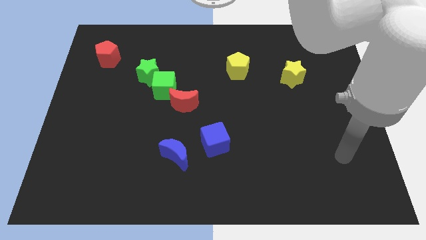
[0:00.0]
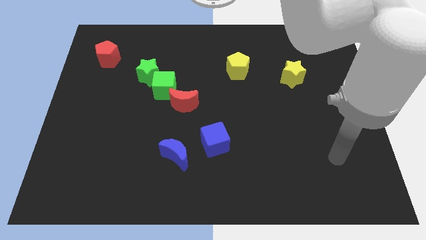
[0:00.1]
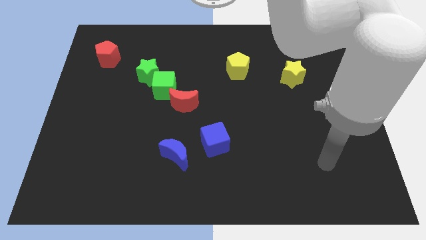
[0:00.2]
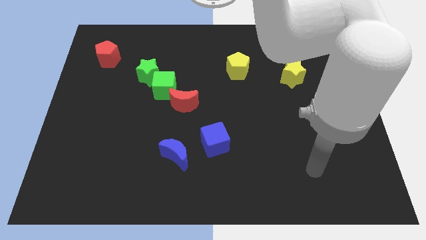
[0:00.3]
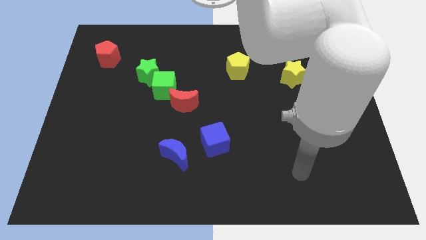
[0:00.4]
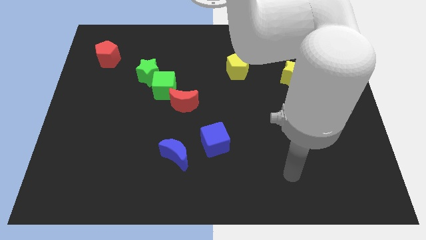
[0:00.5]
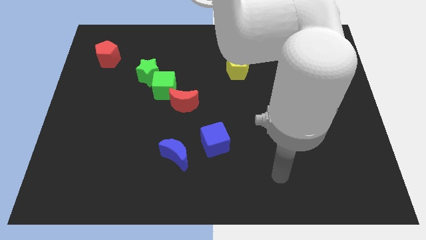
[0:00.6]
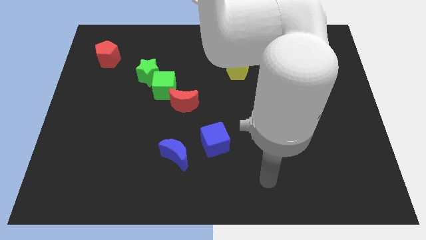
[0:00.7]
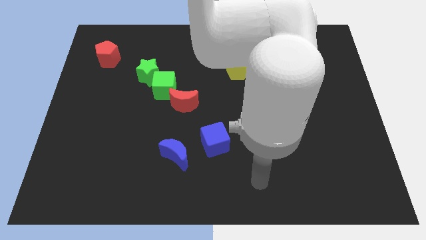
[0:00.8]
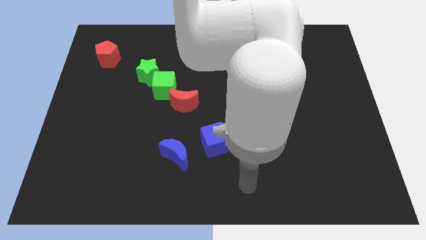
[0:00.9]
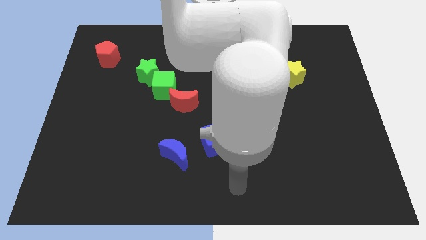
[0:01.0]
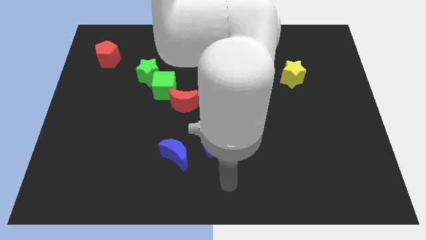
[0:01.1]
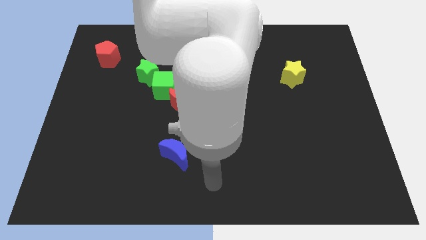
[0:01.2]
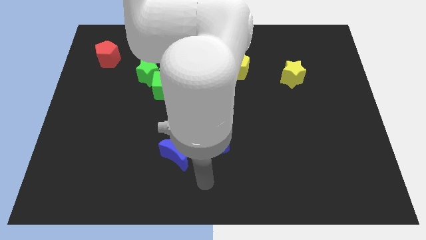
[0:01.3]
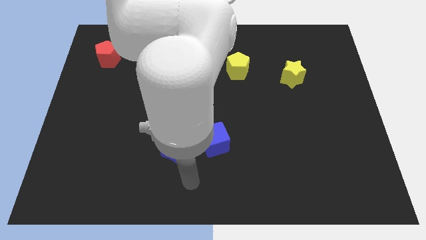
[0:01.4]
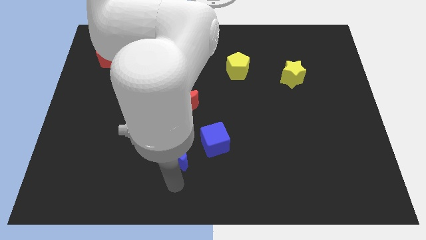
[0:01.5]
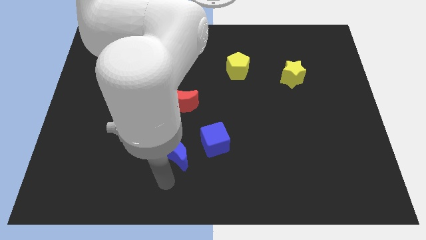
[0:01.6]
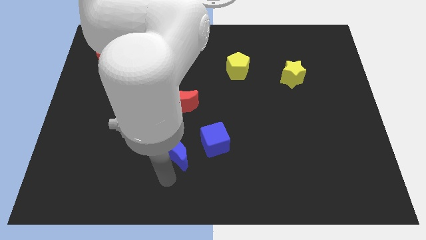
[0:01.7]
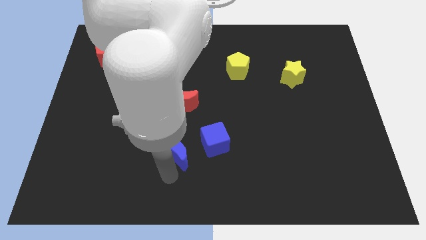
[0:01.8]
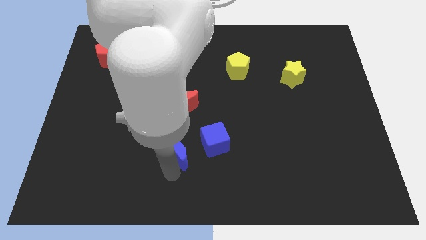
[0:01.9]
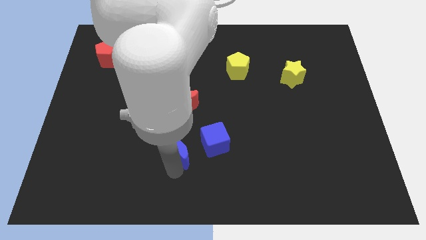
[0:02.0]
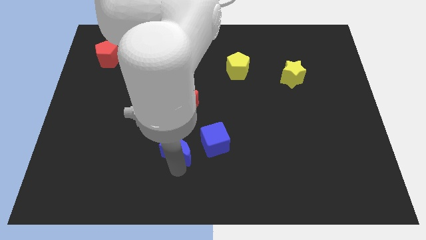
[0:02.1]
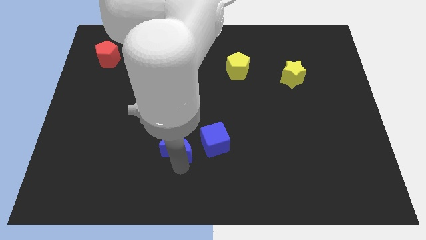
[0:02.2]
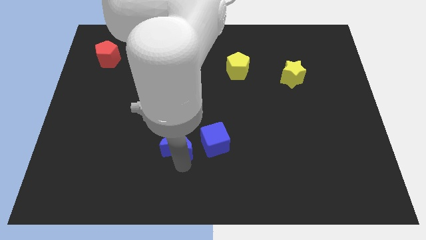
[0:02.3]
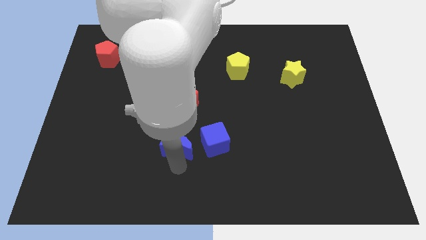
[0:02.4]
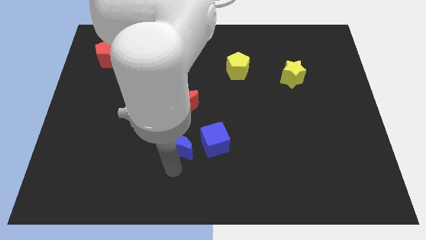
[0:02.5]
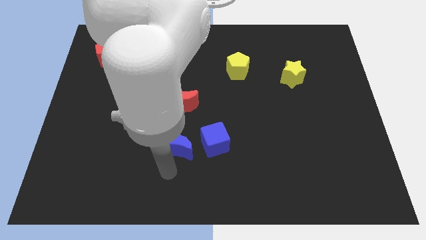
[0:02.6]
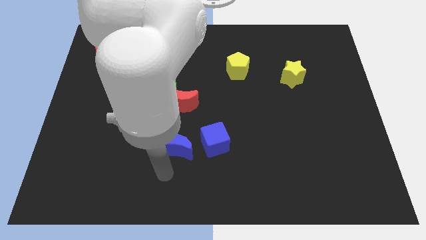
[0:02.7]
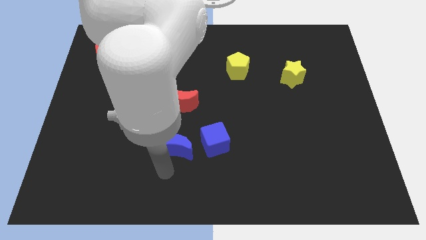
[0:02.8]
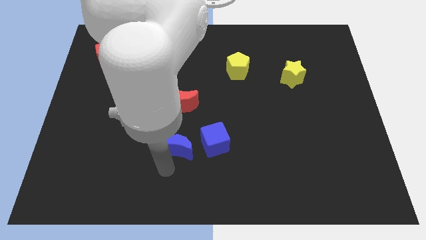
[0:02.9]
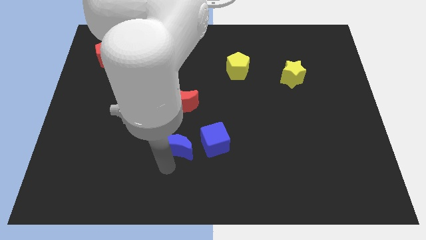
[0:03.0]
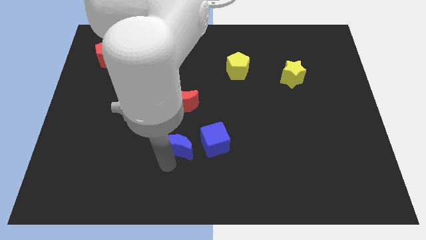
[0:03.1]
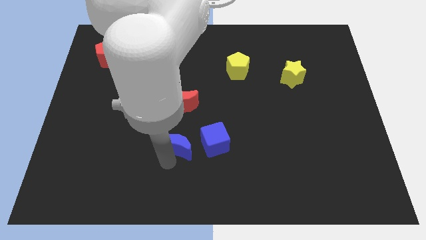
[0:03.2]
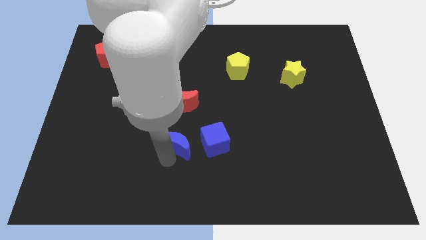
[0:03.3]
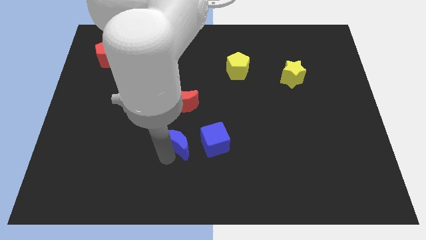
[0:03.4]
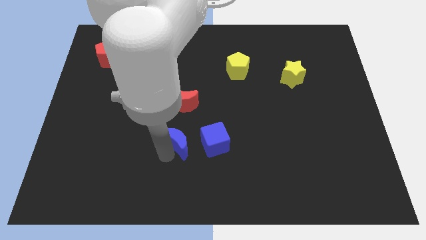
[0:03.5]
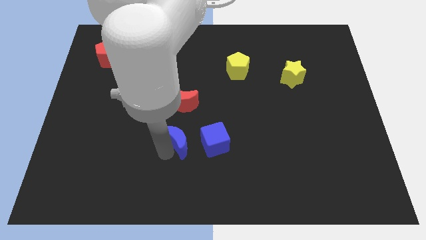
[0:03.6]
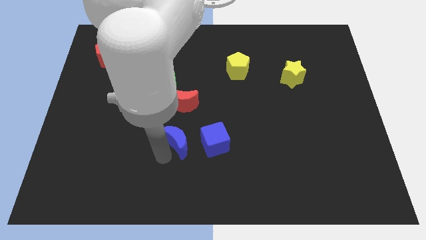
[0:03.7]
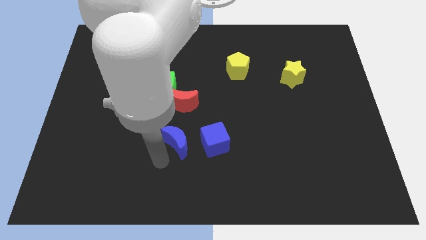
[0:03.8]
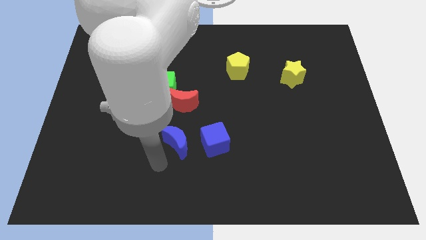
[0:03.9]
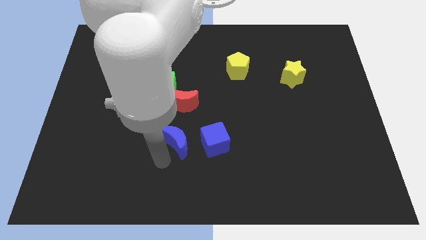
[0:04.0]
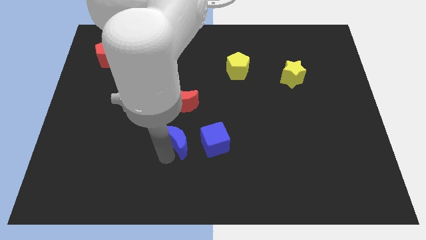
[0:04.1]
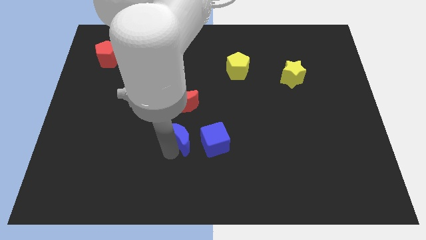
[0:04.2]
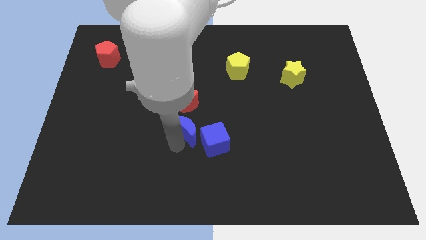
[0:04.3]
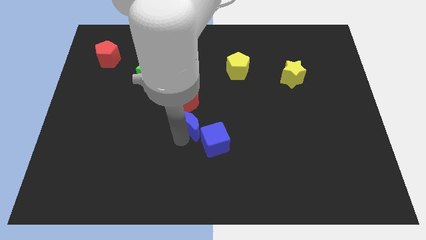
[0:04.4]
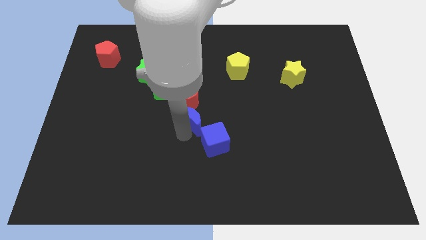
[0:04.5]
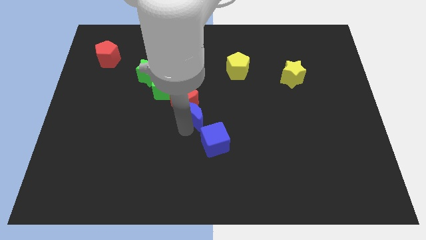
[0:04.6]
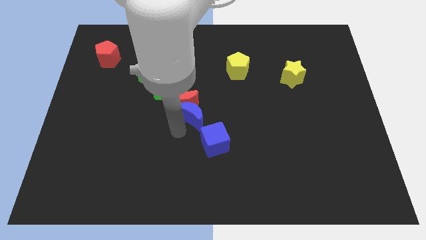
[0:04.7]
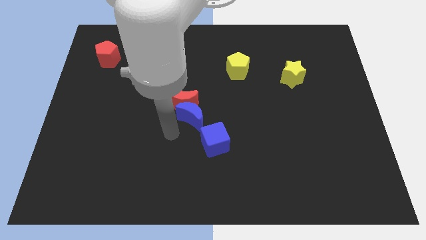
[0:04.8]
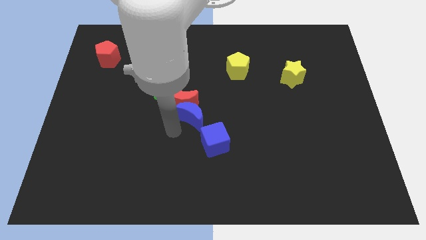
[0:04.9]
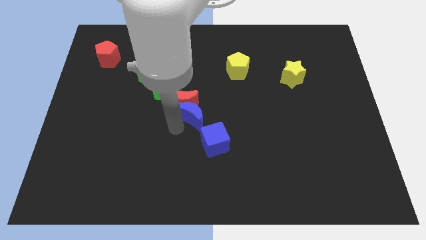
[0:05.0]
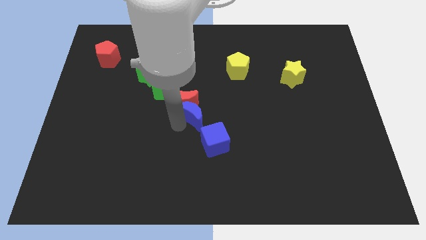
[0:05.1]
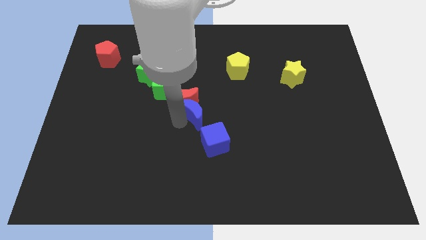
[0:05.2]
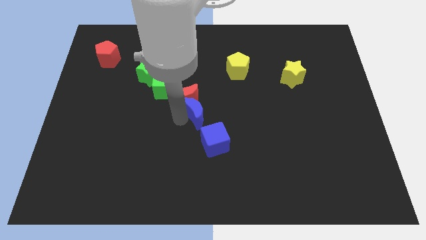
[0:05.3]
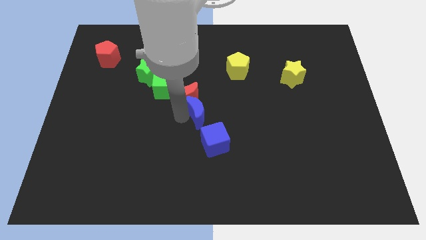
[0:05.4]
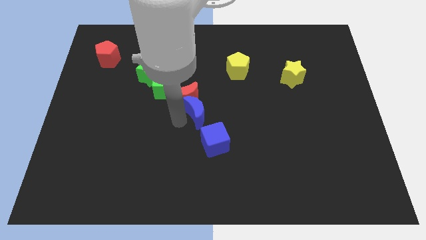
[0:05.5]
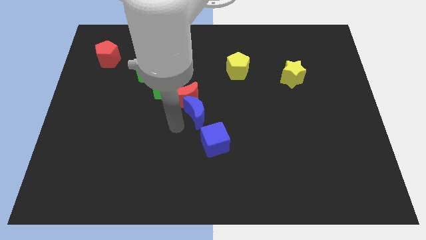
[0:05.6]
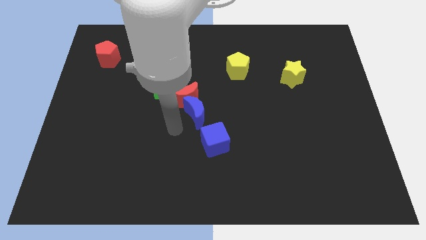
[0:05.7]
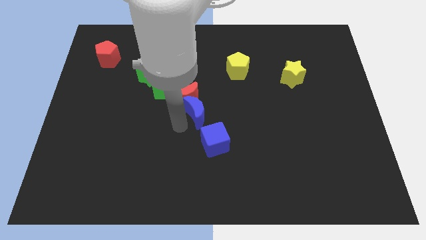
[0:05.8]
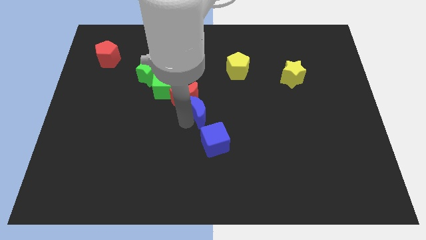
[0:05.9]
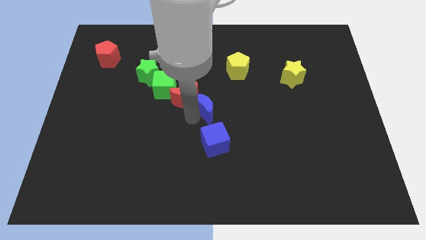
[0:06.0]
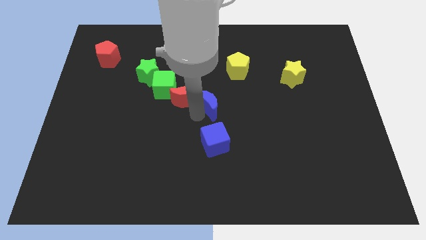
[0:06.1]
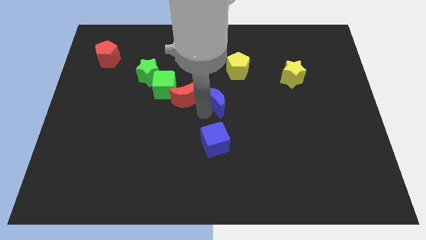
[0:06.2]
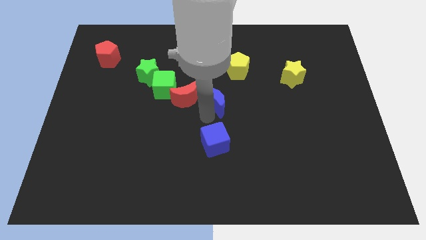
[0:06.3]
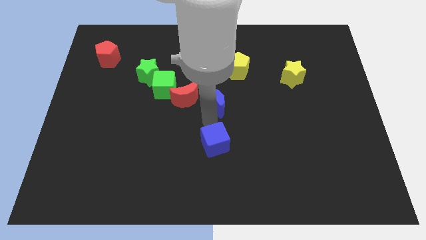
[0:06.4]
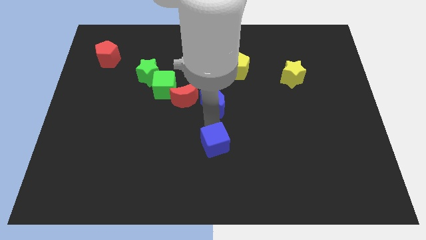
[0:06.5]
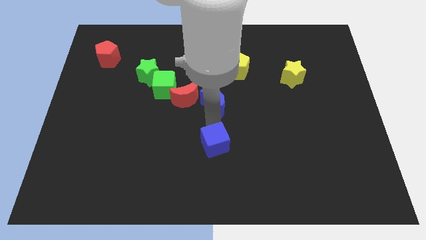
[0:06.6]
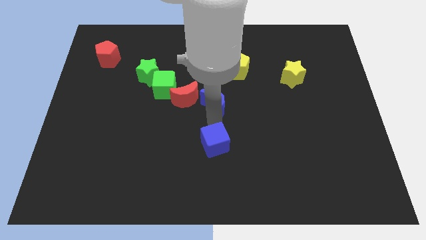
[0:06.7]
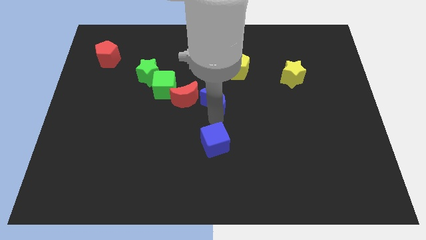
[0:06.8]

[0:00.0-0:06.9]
put the blue moon to the bottom left of the yellow pentagon
